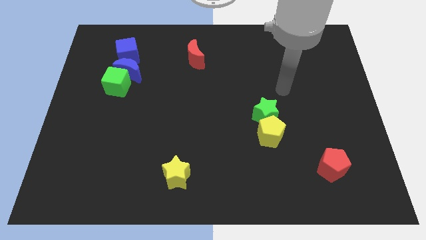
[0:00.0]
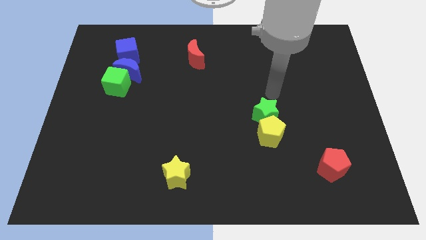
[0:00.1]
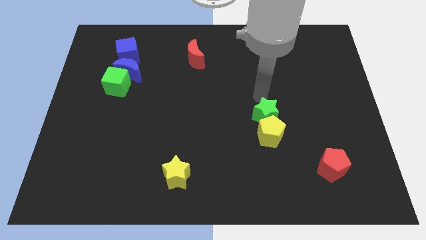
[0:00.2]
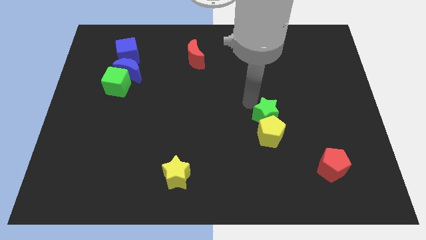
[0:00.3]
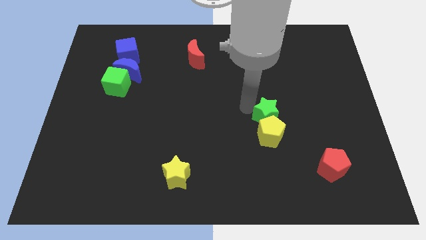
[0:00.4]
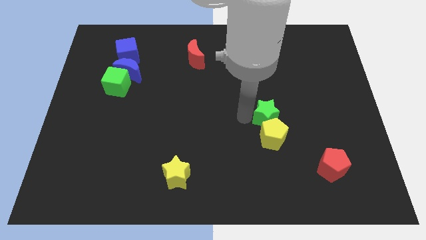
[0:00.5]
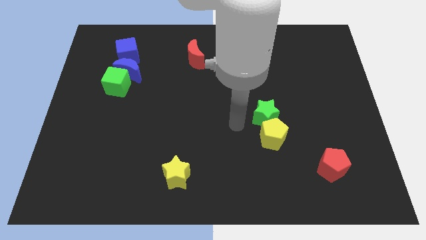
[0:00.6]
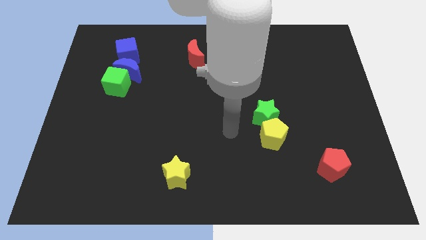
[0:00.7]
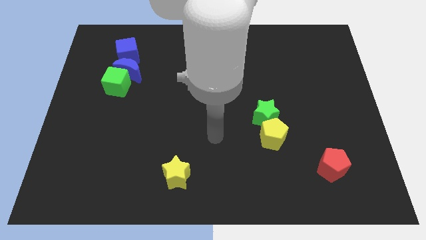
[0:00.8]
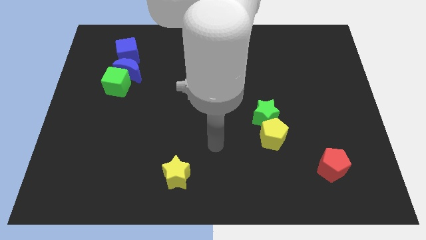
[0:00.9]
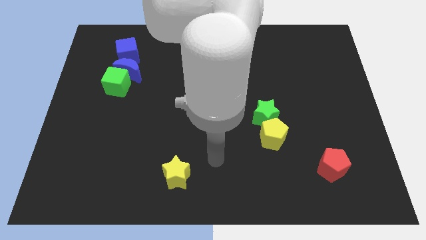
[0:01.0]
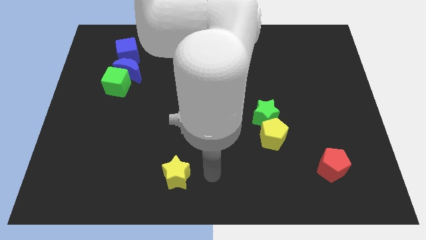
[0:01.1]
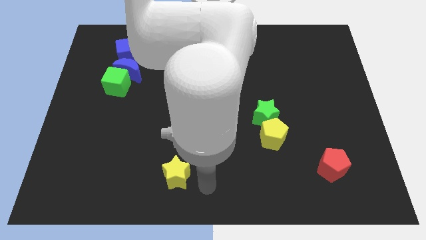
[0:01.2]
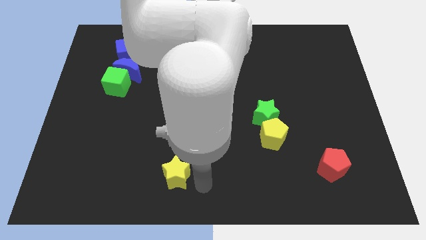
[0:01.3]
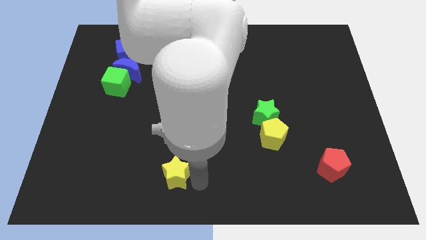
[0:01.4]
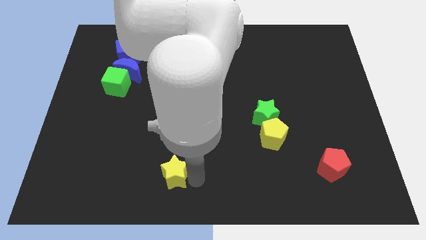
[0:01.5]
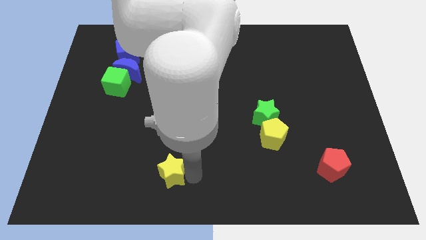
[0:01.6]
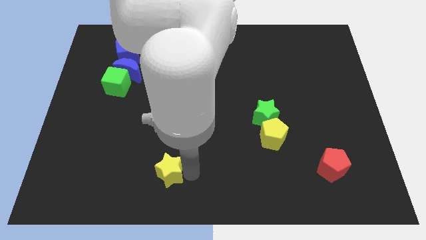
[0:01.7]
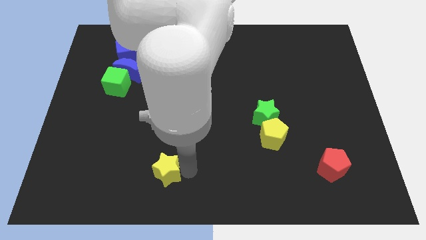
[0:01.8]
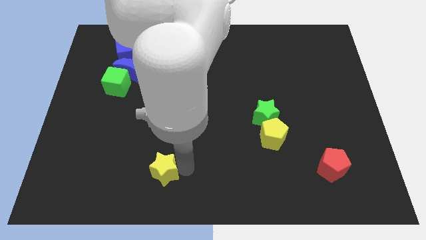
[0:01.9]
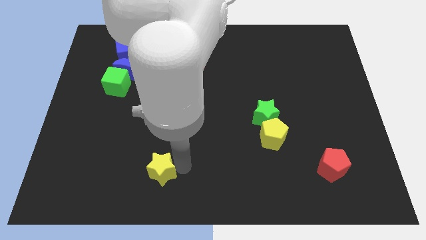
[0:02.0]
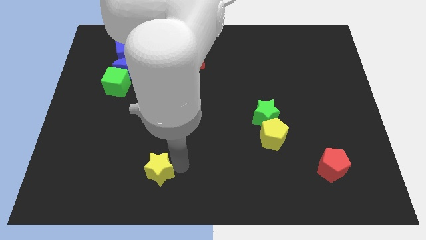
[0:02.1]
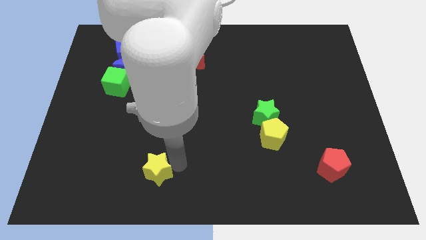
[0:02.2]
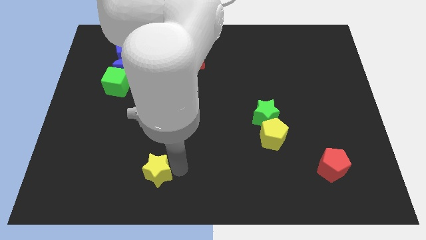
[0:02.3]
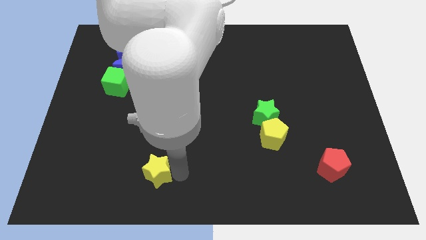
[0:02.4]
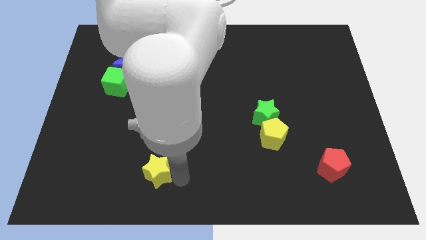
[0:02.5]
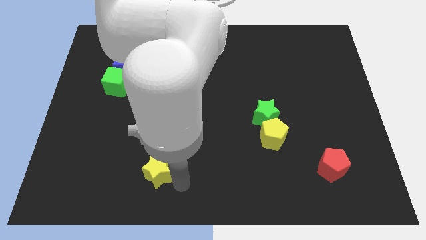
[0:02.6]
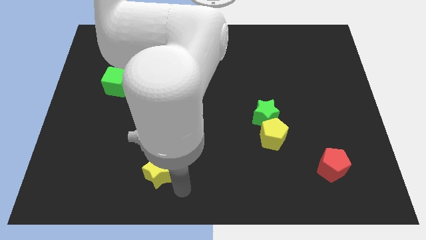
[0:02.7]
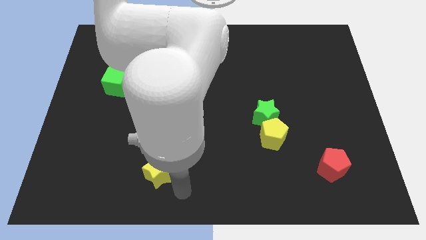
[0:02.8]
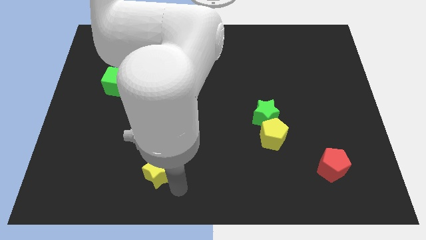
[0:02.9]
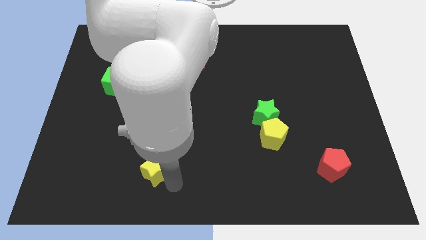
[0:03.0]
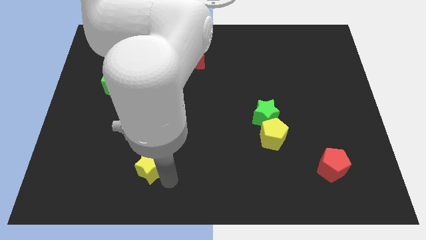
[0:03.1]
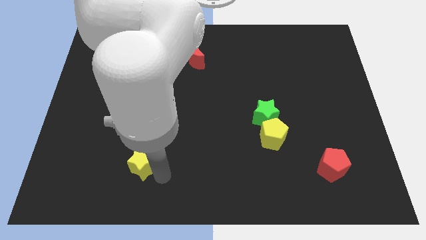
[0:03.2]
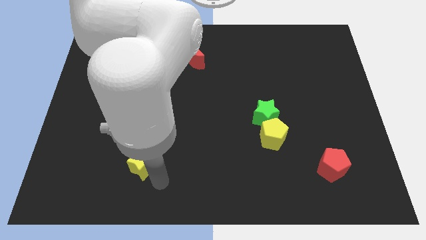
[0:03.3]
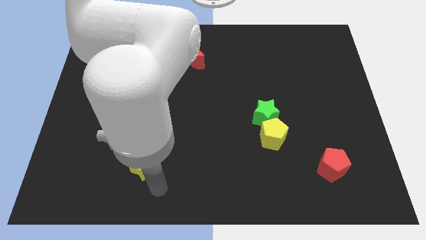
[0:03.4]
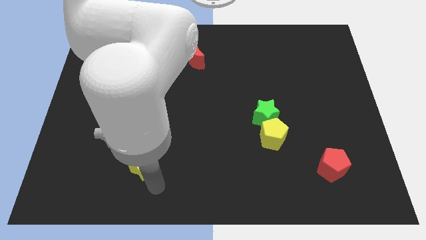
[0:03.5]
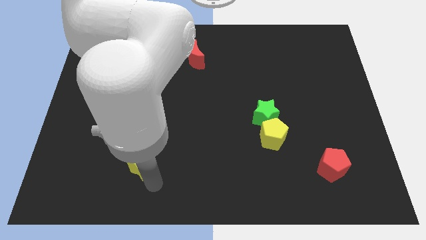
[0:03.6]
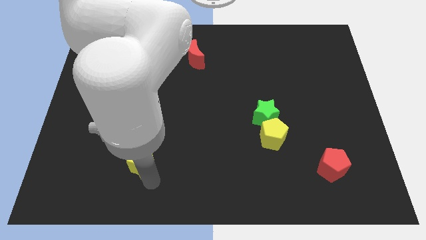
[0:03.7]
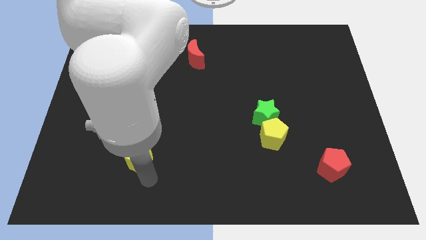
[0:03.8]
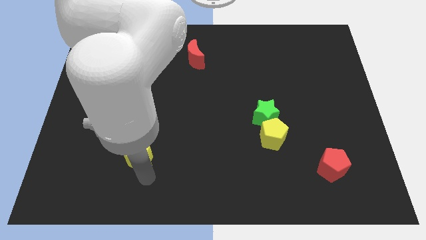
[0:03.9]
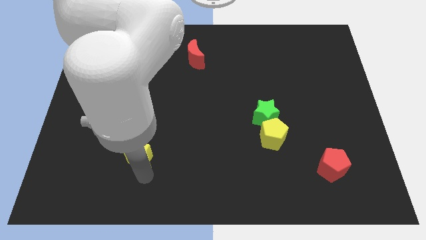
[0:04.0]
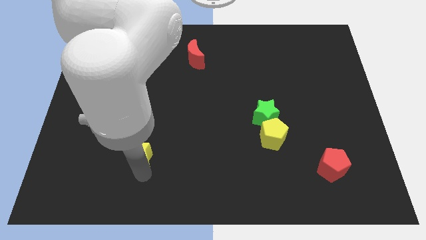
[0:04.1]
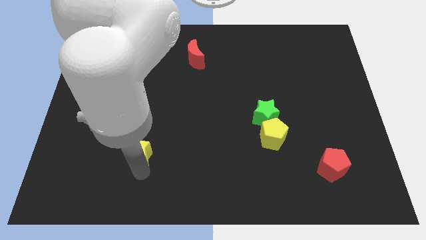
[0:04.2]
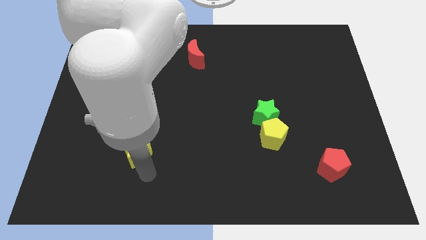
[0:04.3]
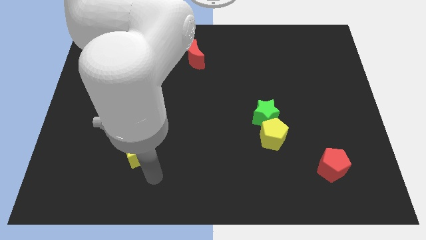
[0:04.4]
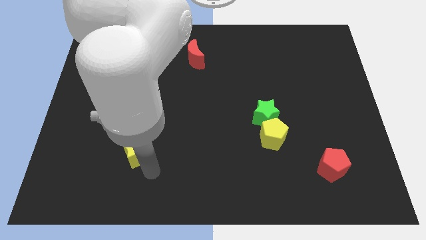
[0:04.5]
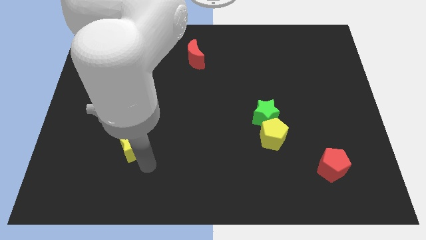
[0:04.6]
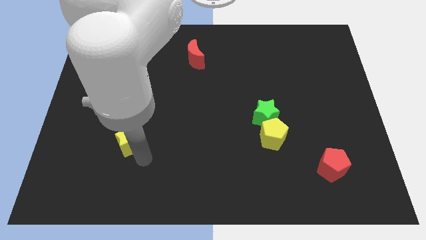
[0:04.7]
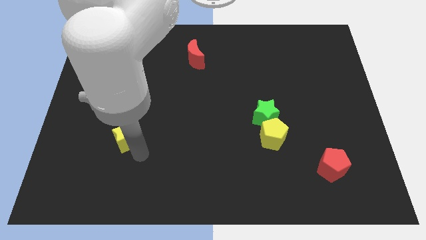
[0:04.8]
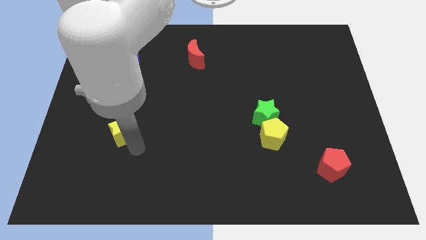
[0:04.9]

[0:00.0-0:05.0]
move the yellow star to the bottom side of the green cube

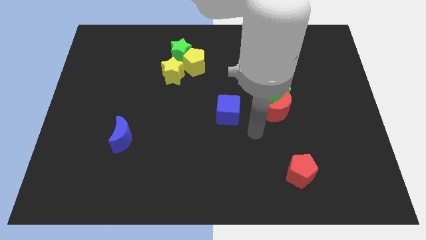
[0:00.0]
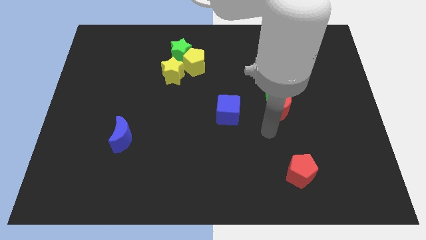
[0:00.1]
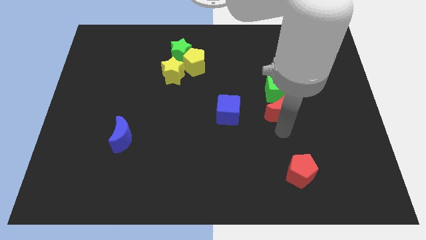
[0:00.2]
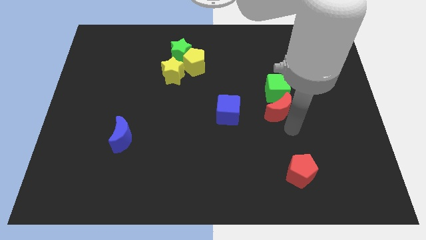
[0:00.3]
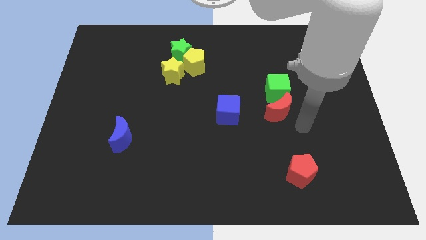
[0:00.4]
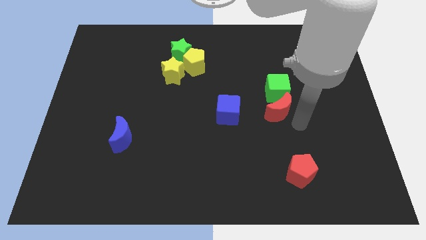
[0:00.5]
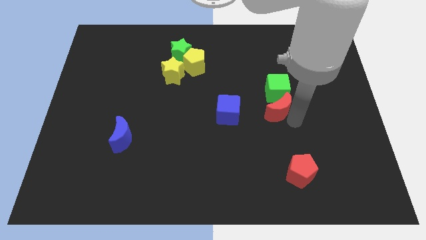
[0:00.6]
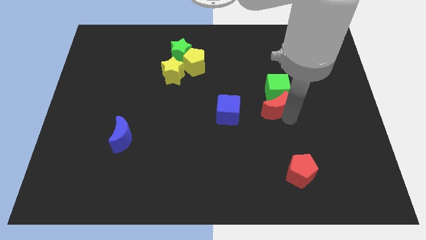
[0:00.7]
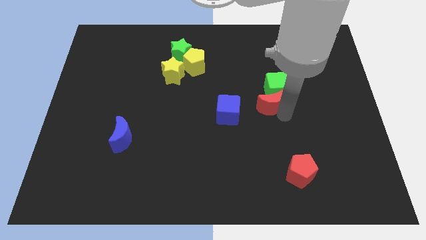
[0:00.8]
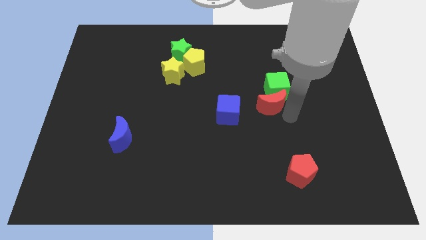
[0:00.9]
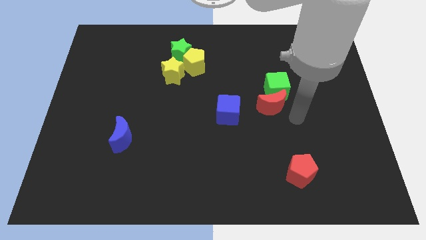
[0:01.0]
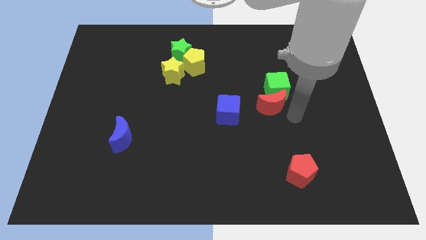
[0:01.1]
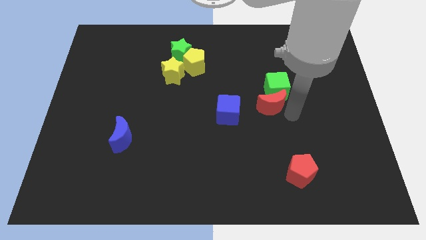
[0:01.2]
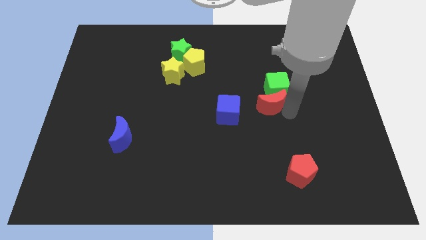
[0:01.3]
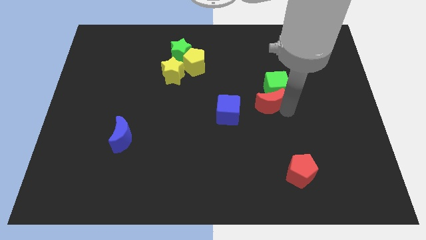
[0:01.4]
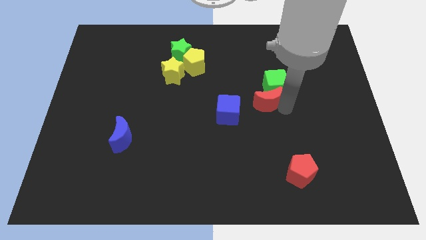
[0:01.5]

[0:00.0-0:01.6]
push the red moon to the top right of the blue cube

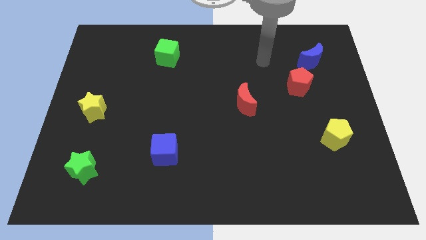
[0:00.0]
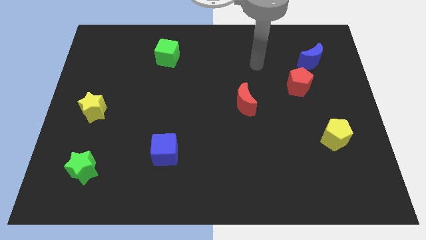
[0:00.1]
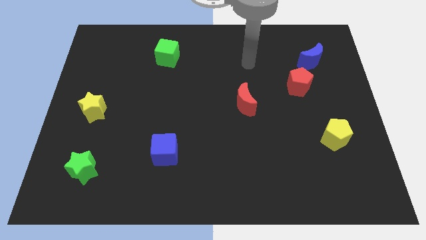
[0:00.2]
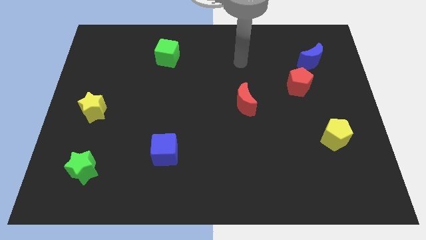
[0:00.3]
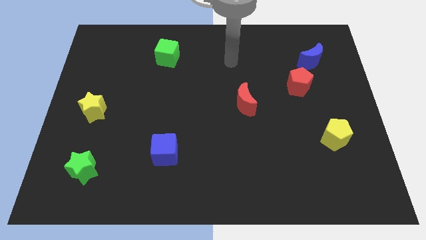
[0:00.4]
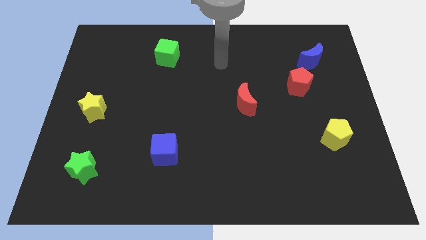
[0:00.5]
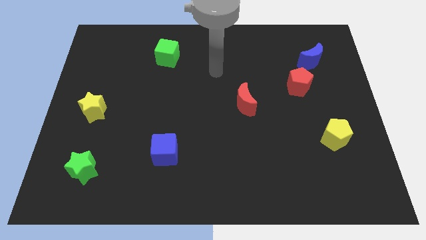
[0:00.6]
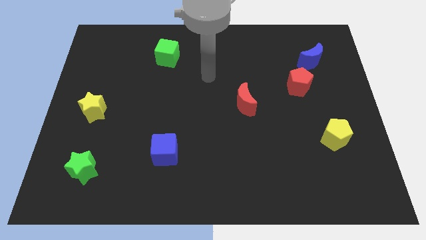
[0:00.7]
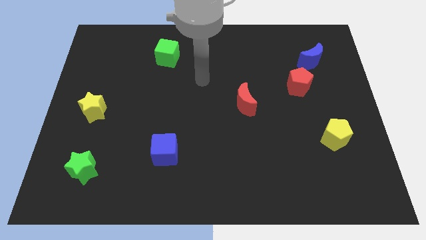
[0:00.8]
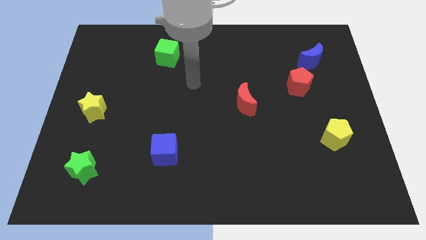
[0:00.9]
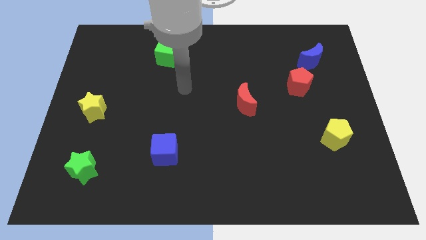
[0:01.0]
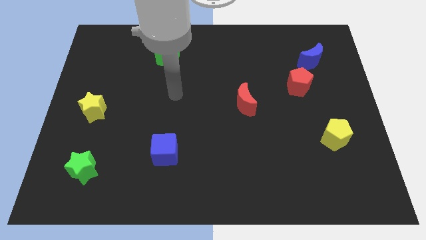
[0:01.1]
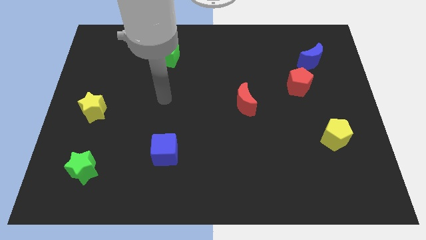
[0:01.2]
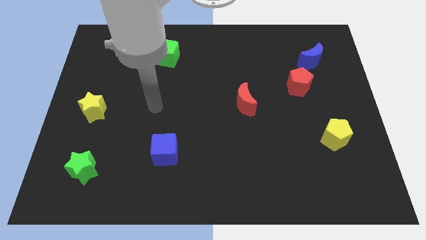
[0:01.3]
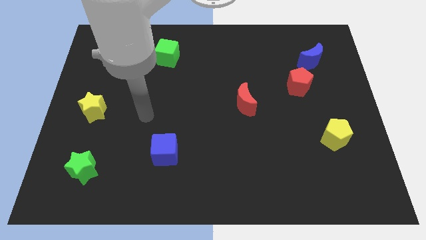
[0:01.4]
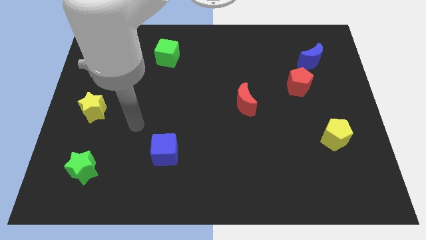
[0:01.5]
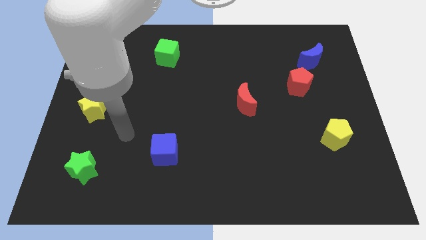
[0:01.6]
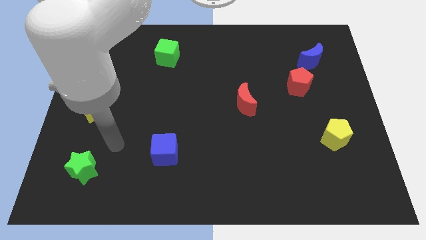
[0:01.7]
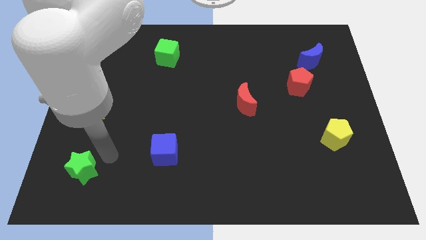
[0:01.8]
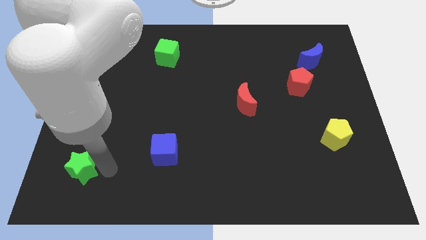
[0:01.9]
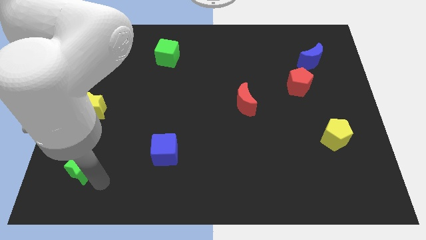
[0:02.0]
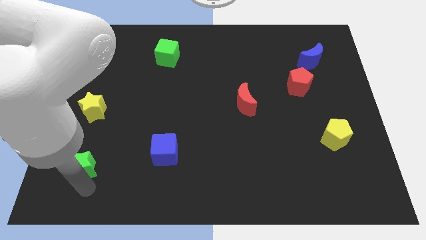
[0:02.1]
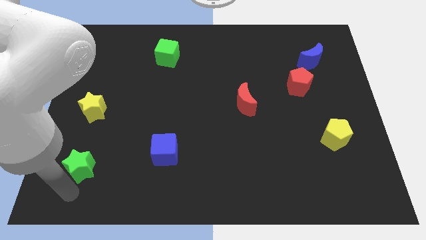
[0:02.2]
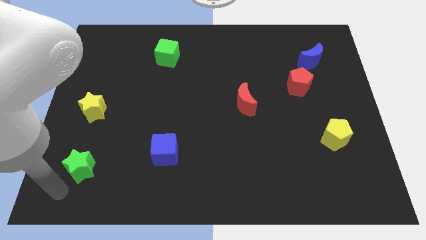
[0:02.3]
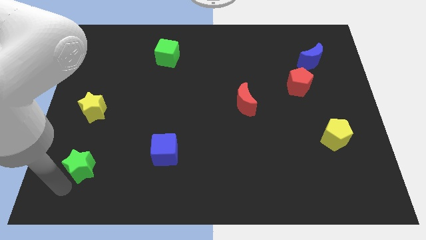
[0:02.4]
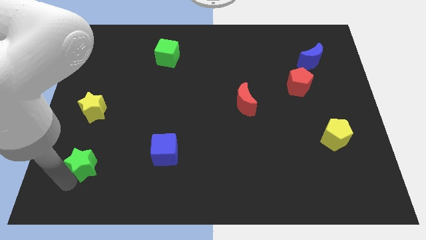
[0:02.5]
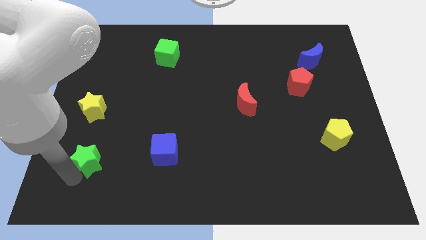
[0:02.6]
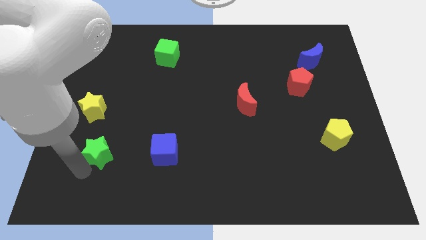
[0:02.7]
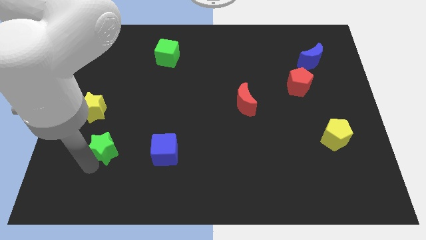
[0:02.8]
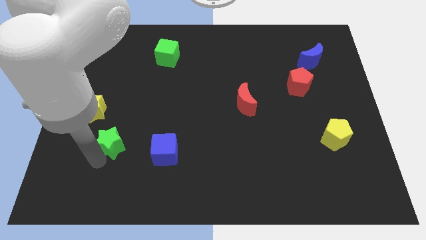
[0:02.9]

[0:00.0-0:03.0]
move the green star diagonally down and to the right of the yellow star
